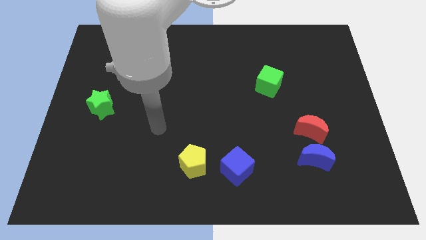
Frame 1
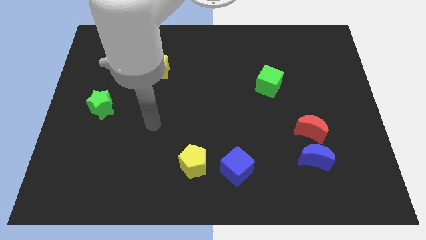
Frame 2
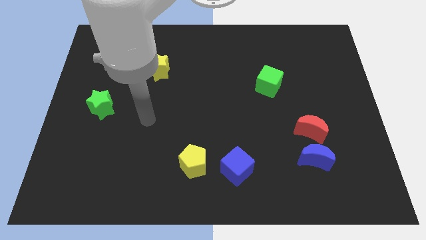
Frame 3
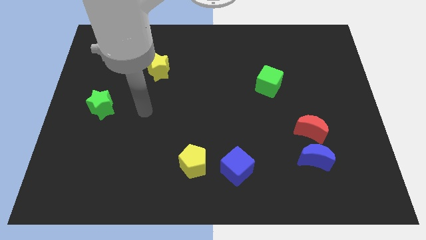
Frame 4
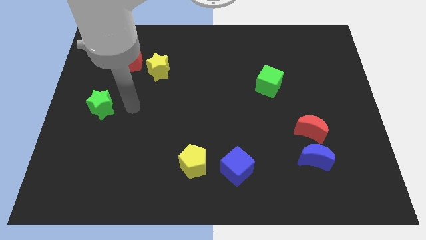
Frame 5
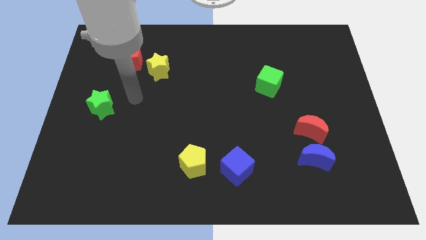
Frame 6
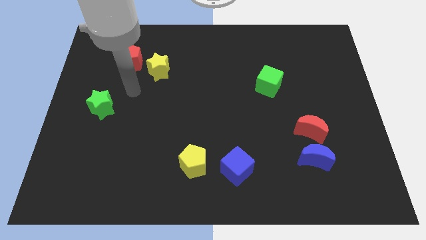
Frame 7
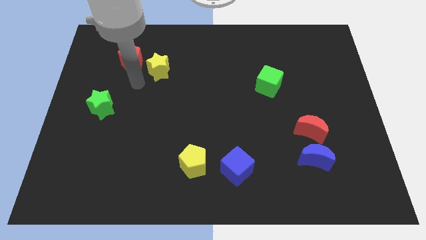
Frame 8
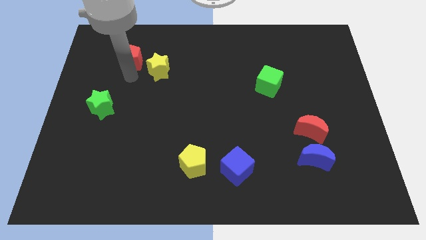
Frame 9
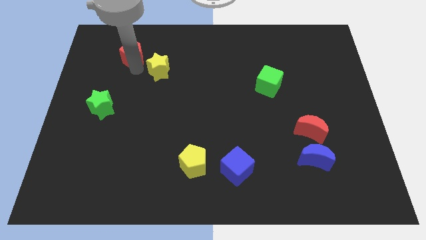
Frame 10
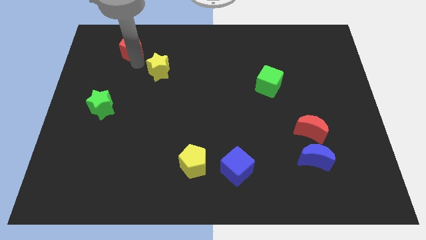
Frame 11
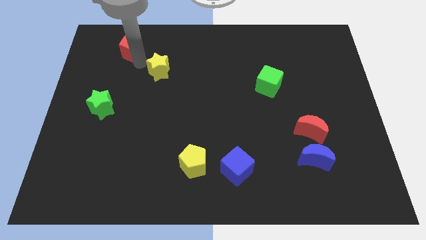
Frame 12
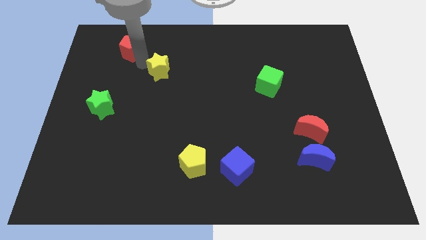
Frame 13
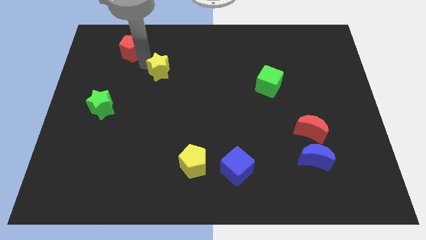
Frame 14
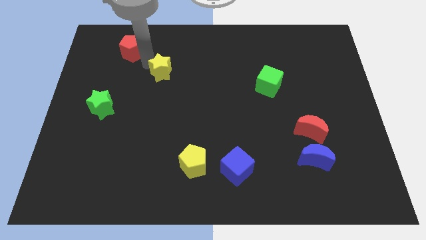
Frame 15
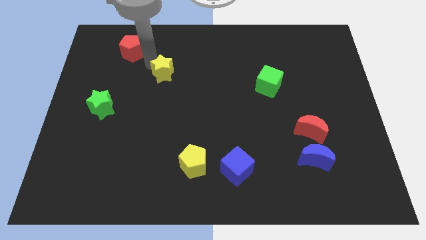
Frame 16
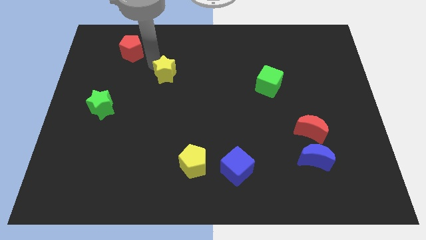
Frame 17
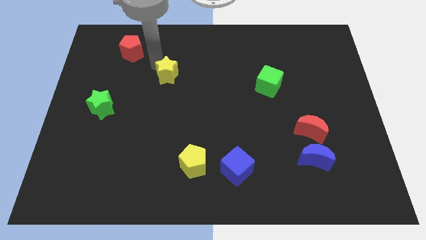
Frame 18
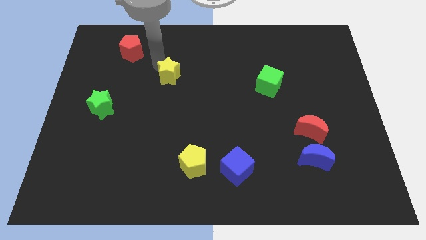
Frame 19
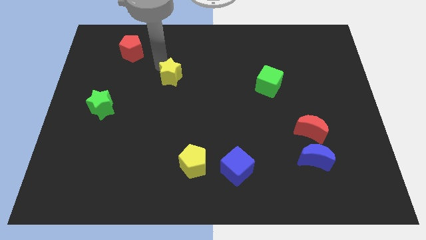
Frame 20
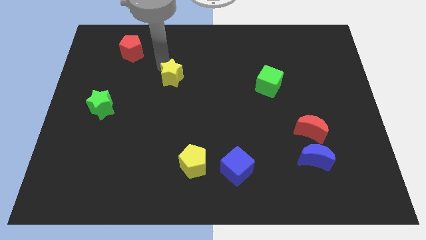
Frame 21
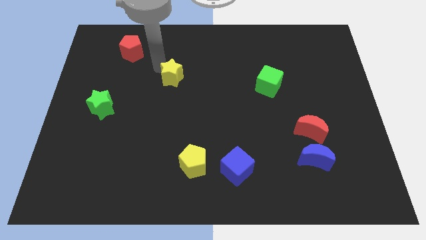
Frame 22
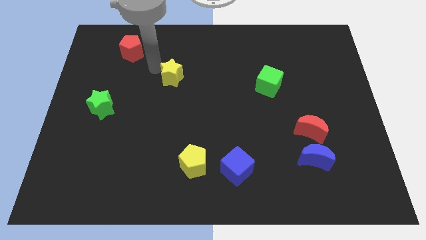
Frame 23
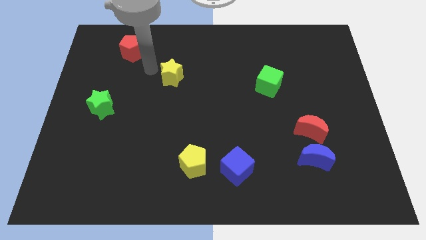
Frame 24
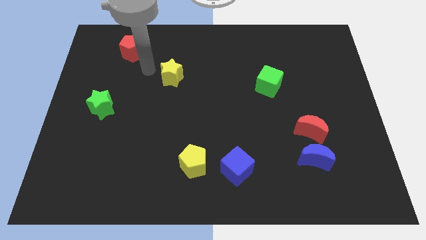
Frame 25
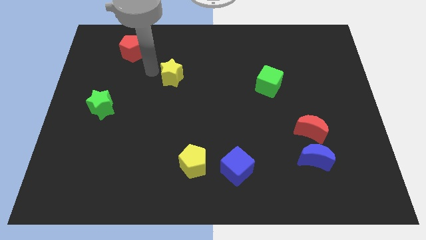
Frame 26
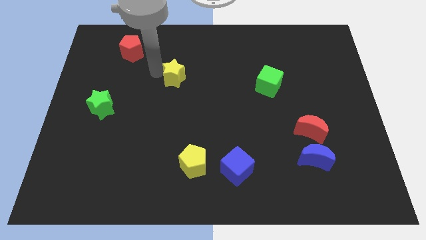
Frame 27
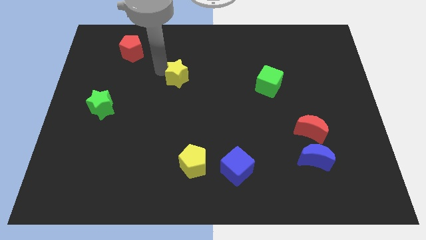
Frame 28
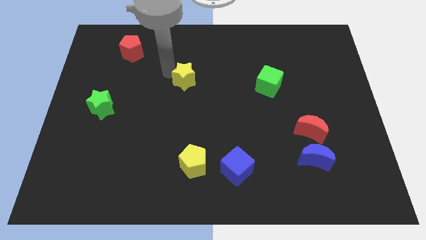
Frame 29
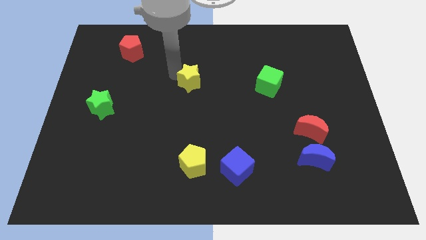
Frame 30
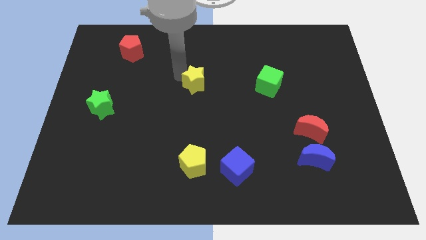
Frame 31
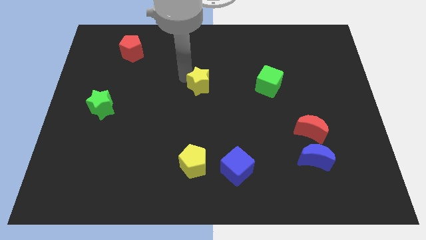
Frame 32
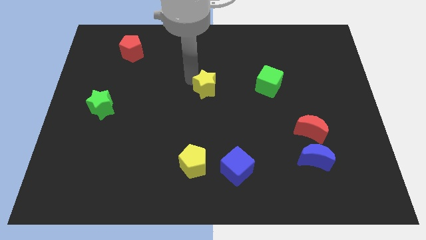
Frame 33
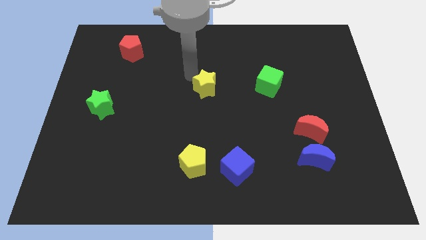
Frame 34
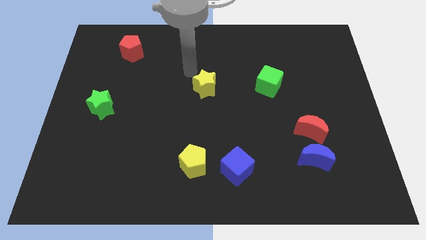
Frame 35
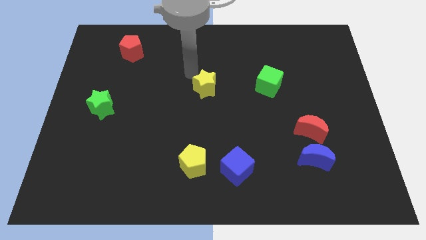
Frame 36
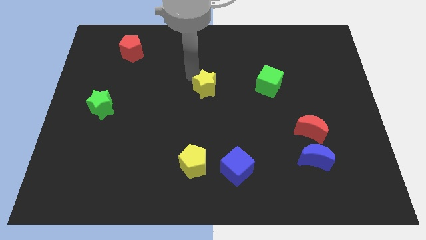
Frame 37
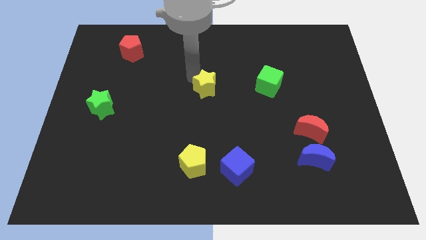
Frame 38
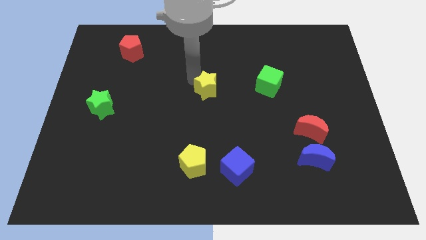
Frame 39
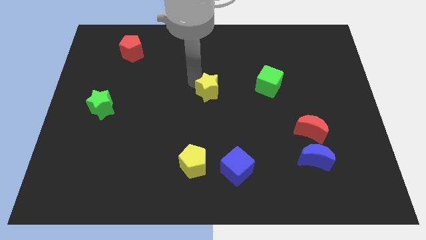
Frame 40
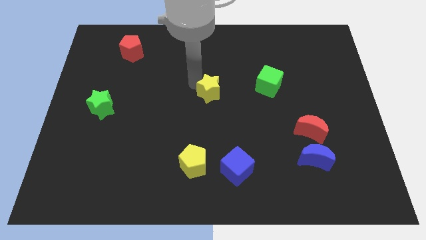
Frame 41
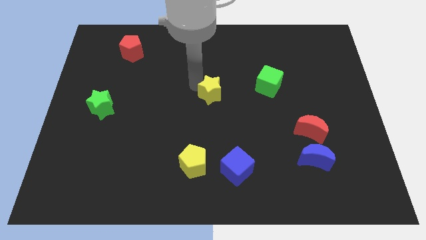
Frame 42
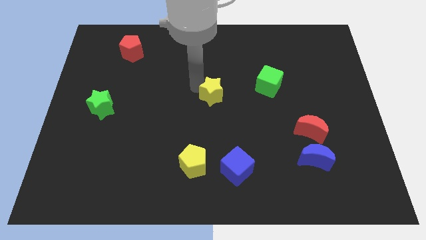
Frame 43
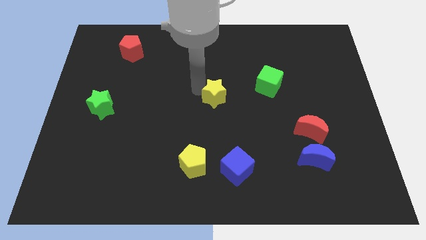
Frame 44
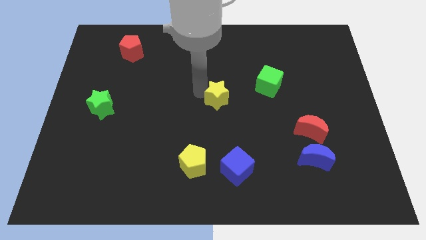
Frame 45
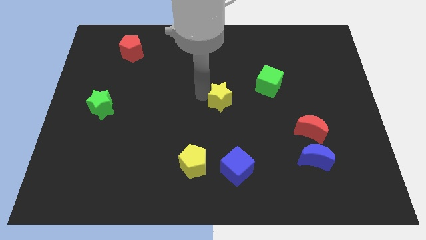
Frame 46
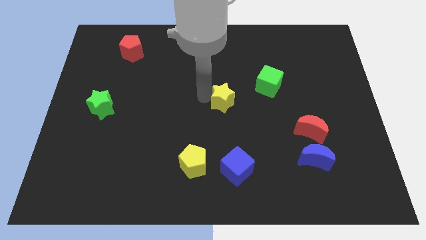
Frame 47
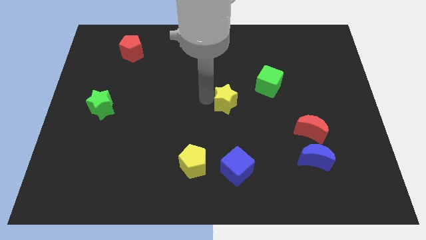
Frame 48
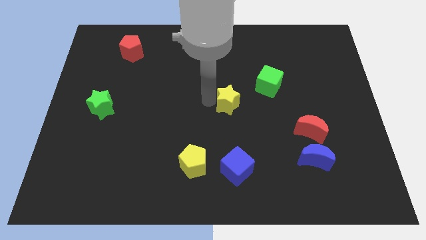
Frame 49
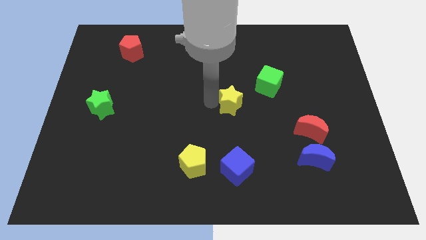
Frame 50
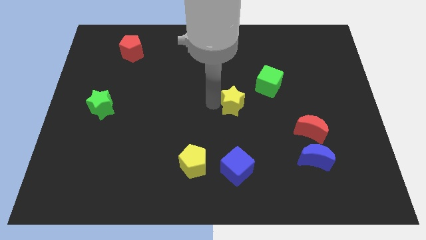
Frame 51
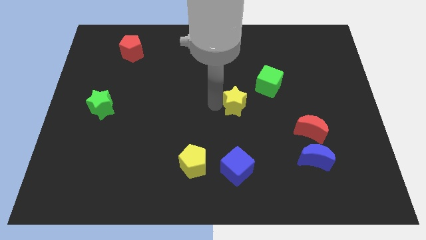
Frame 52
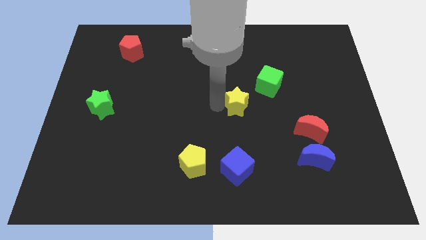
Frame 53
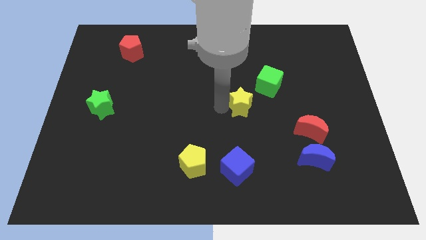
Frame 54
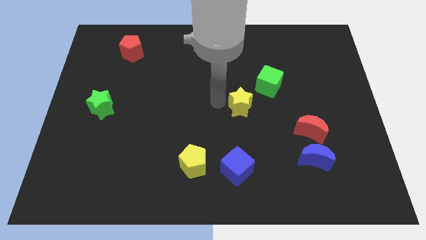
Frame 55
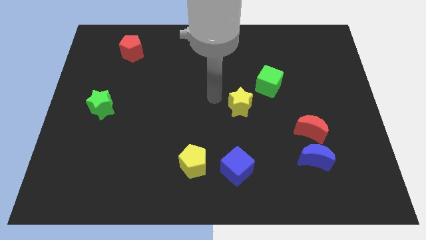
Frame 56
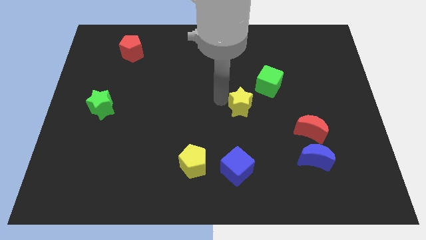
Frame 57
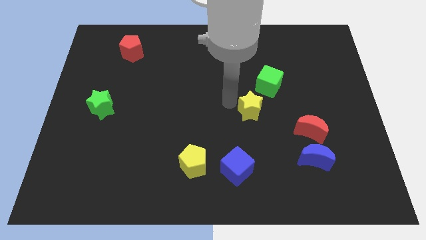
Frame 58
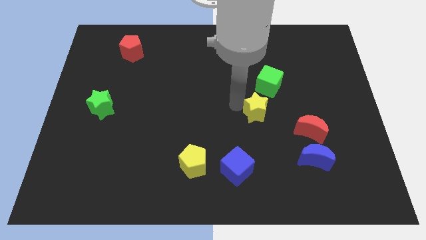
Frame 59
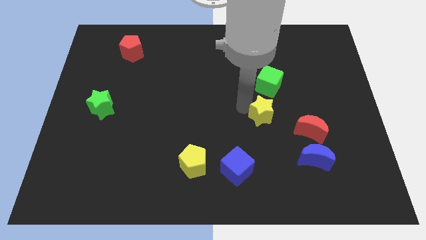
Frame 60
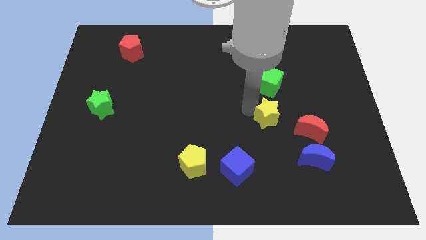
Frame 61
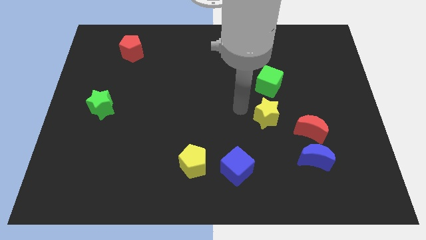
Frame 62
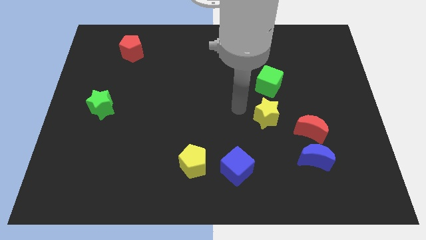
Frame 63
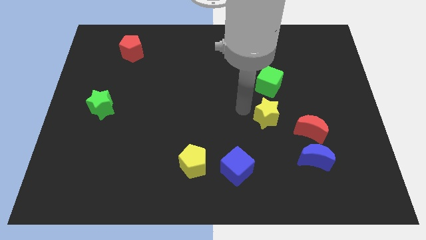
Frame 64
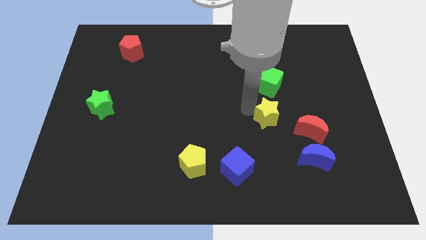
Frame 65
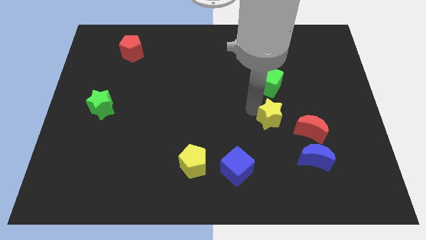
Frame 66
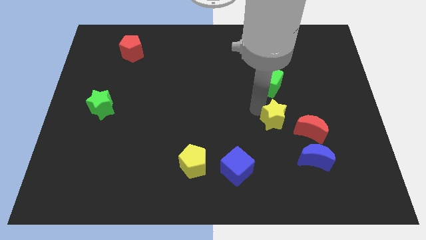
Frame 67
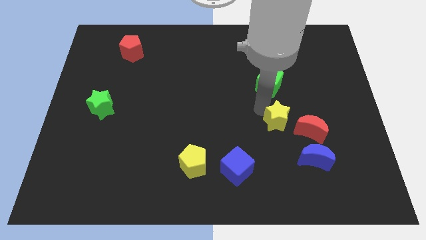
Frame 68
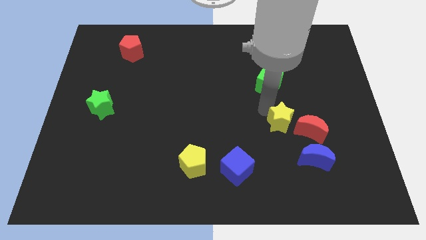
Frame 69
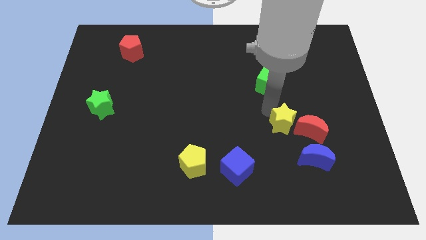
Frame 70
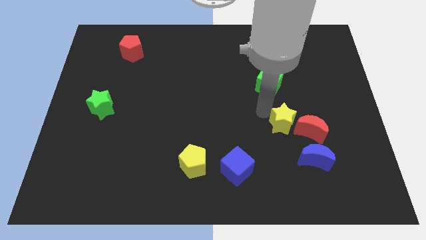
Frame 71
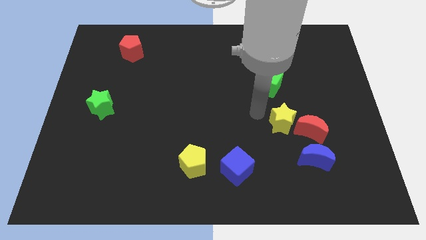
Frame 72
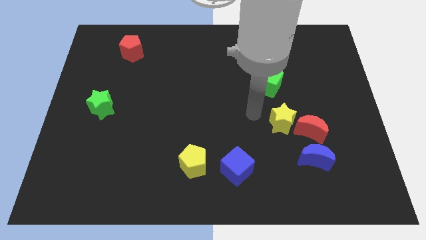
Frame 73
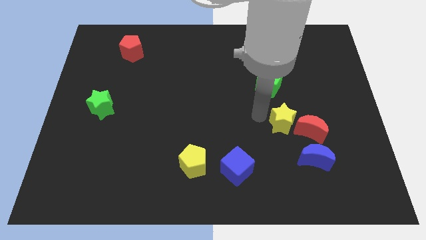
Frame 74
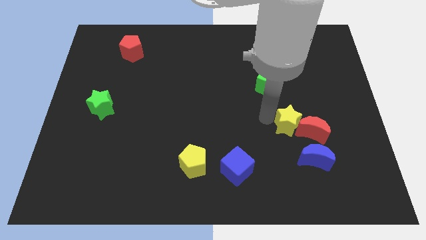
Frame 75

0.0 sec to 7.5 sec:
move the yellow star to the red moon

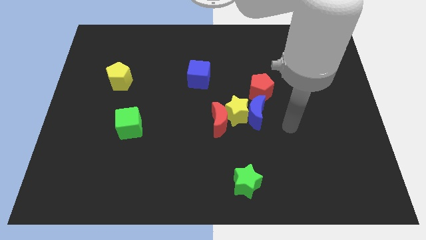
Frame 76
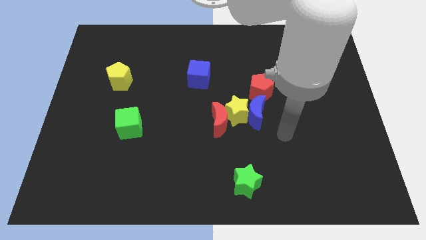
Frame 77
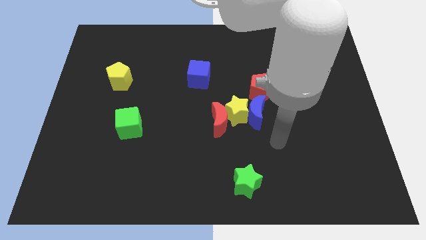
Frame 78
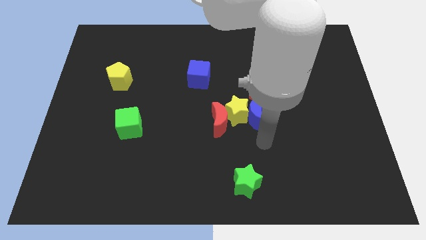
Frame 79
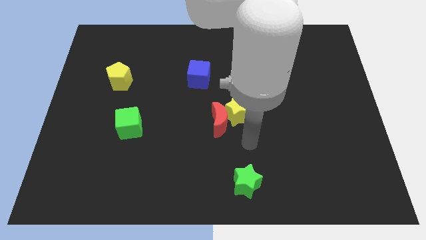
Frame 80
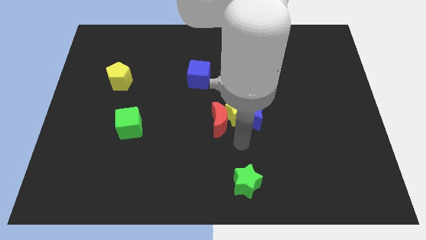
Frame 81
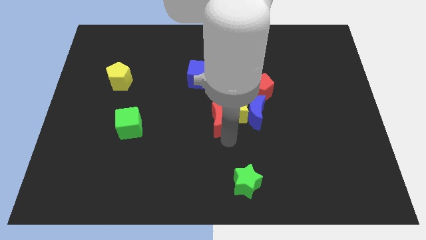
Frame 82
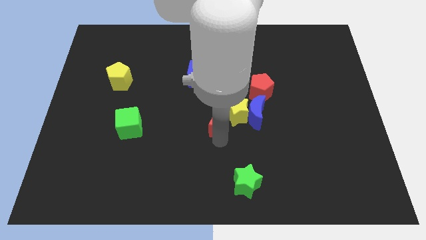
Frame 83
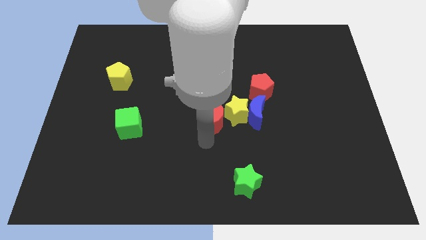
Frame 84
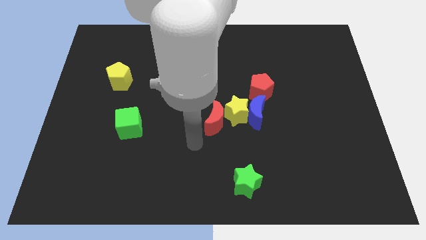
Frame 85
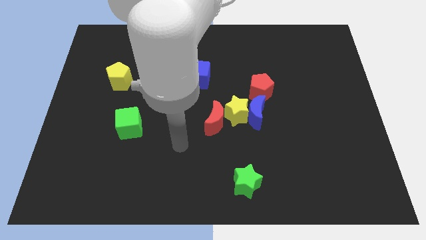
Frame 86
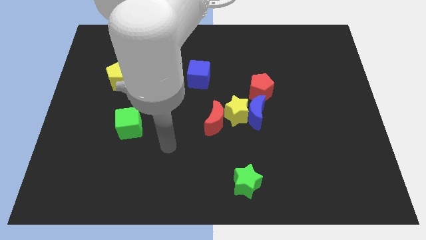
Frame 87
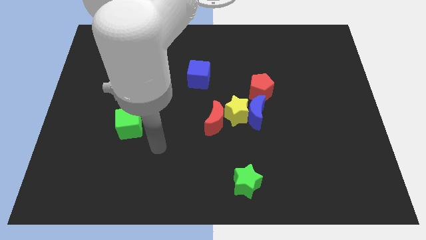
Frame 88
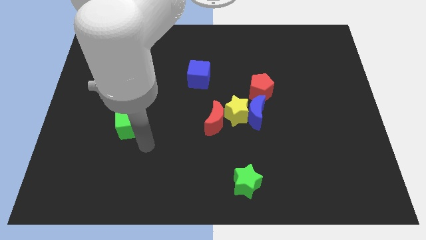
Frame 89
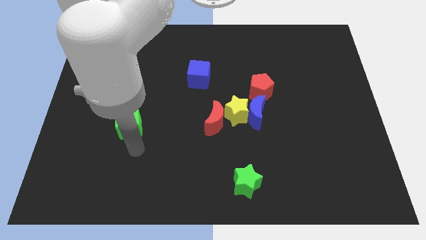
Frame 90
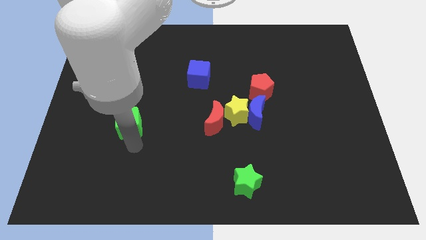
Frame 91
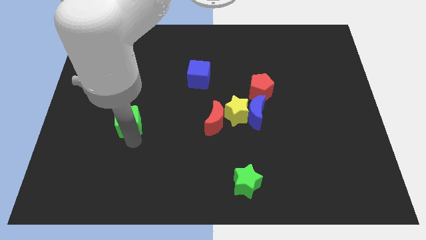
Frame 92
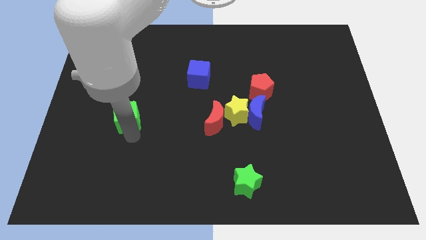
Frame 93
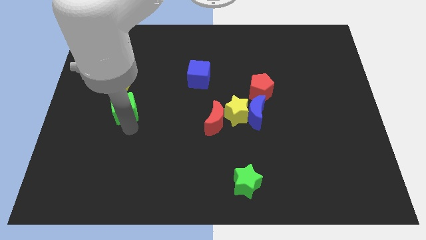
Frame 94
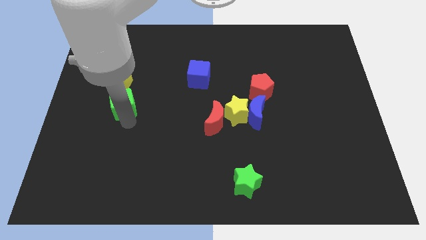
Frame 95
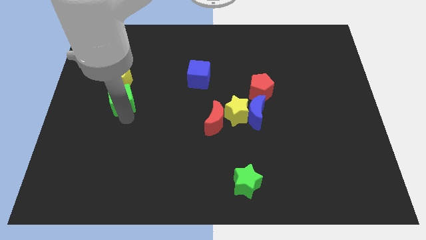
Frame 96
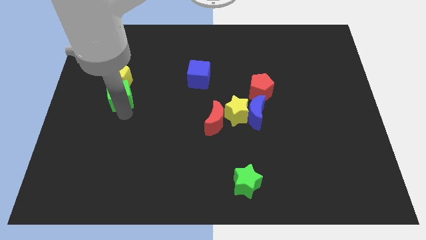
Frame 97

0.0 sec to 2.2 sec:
slide the green cube to the yellow pentagon
